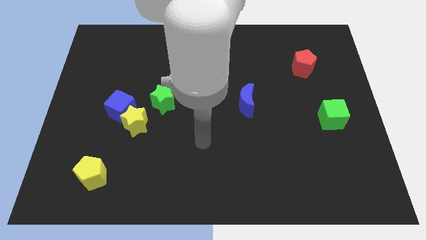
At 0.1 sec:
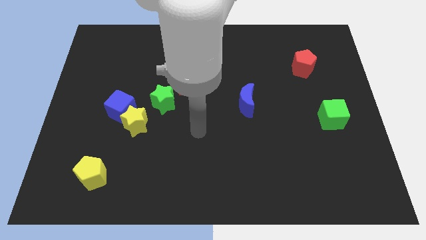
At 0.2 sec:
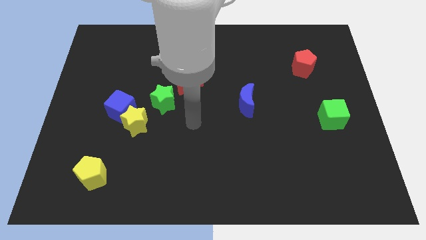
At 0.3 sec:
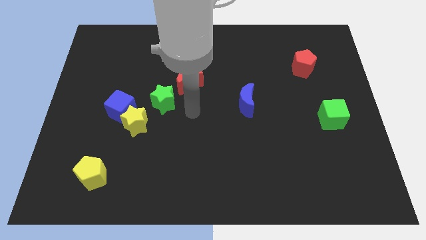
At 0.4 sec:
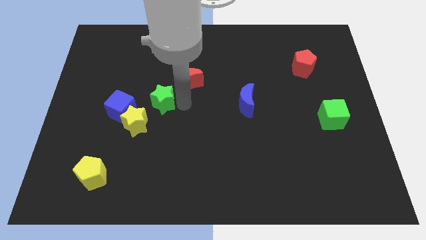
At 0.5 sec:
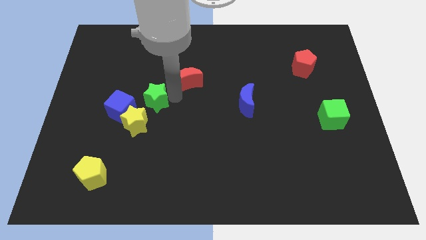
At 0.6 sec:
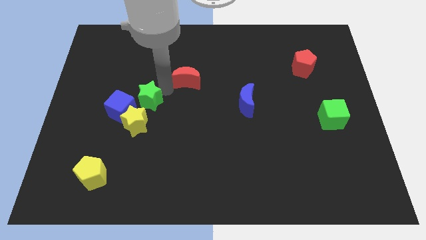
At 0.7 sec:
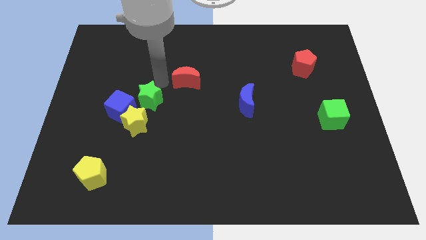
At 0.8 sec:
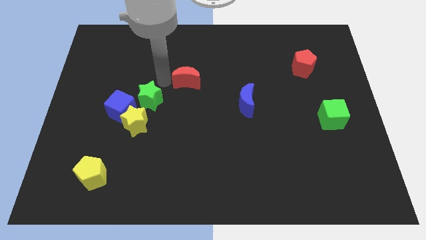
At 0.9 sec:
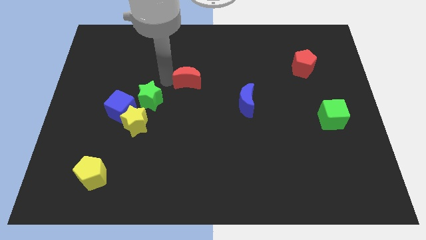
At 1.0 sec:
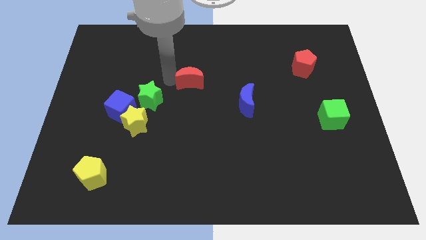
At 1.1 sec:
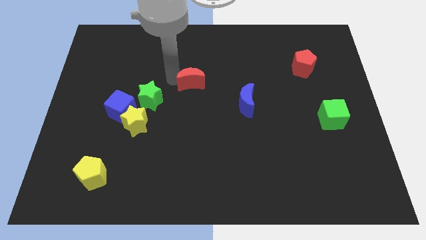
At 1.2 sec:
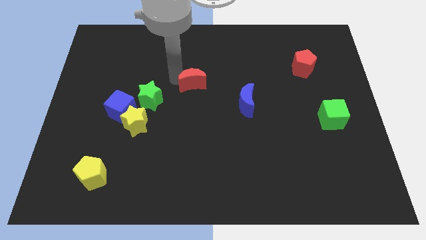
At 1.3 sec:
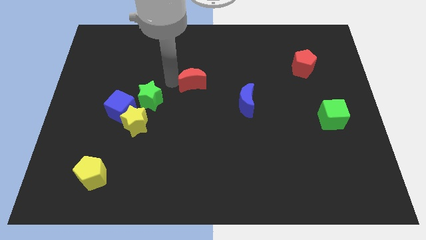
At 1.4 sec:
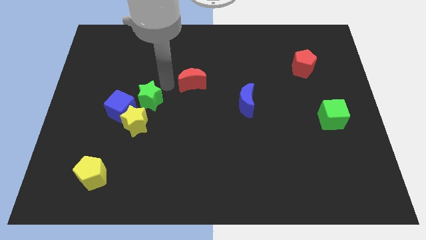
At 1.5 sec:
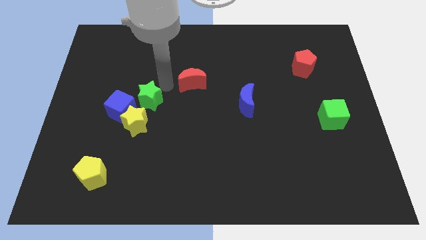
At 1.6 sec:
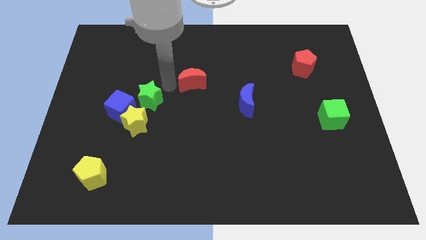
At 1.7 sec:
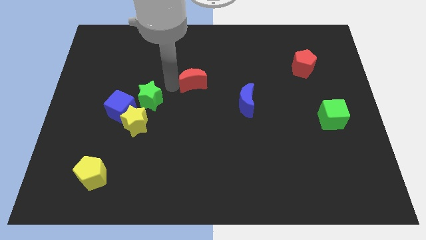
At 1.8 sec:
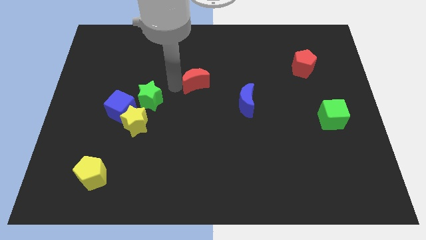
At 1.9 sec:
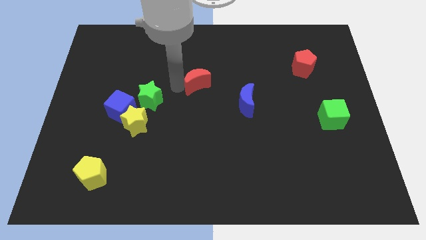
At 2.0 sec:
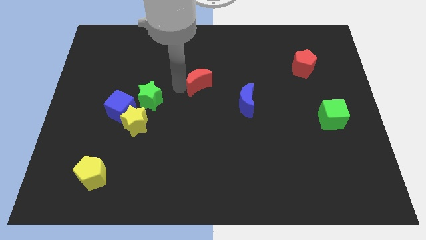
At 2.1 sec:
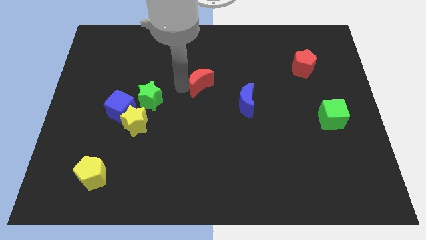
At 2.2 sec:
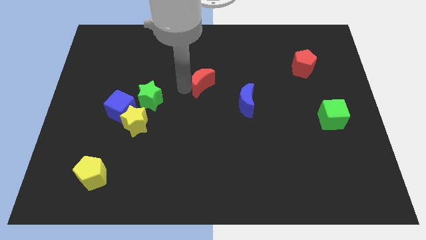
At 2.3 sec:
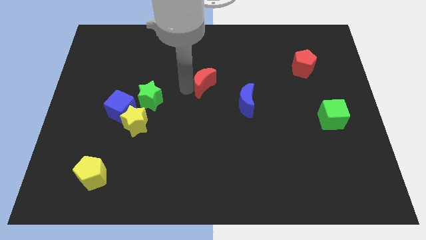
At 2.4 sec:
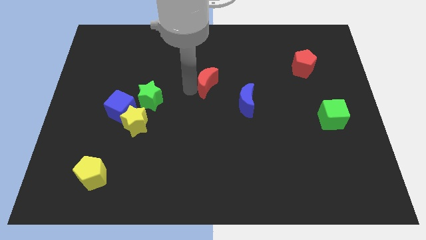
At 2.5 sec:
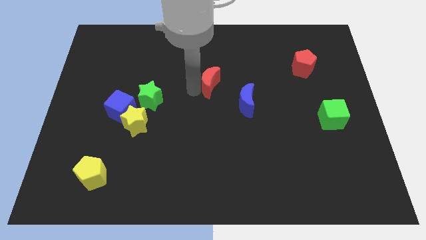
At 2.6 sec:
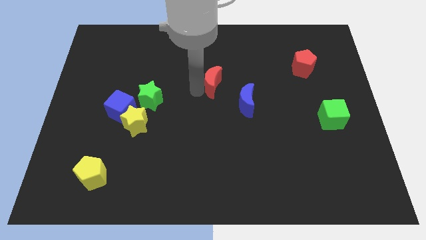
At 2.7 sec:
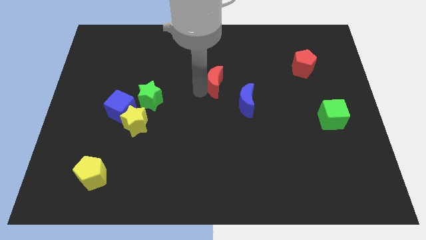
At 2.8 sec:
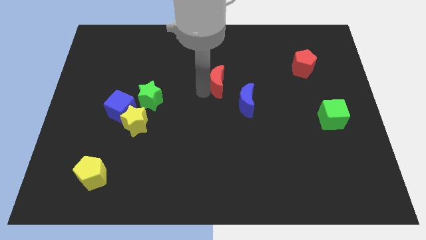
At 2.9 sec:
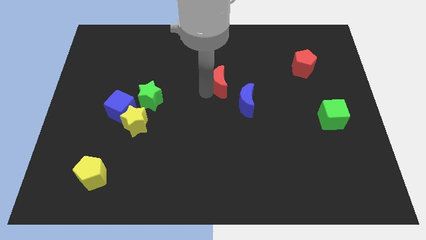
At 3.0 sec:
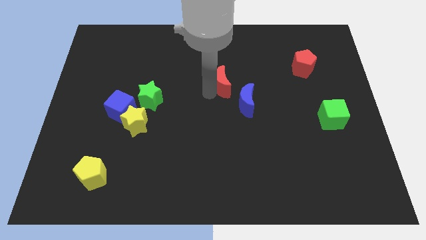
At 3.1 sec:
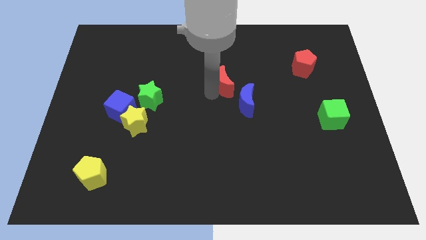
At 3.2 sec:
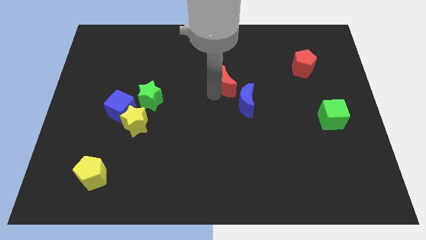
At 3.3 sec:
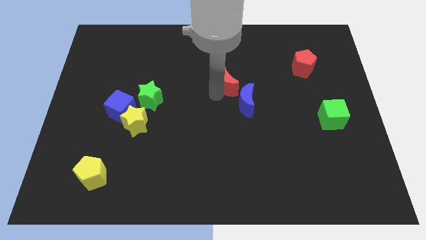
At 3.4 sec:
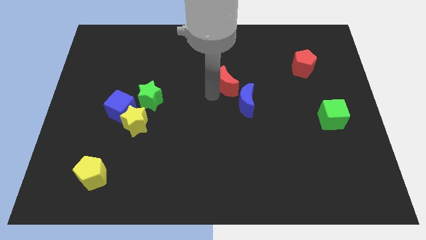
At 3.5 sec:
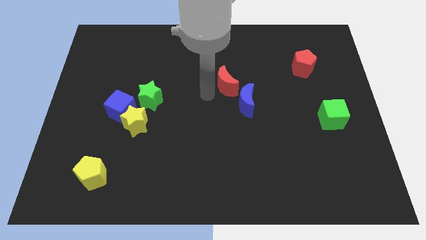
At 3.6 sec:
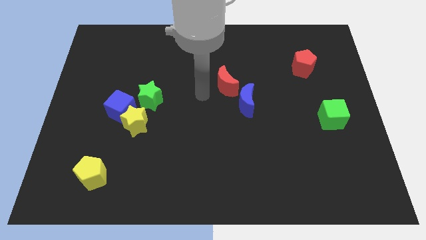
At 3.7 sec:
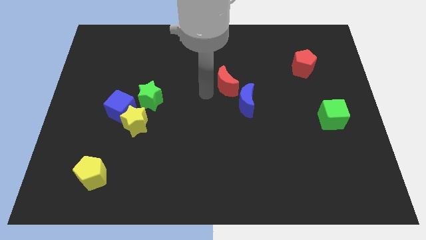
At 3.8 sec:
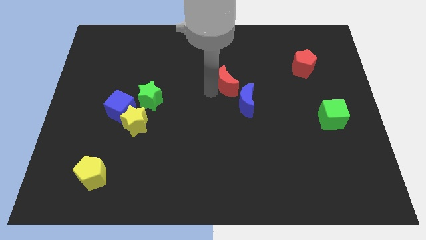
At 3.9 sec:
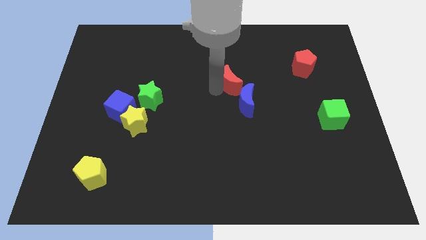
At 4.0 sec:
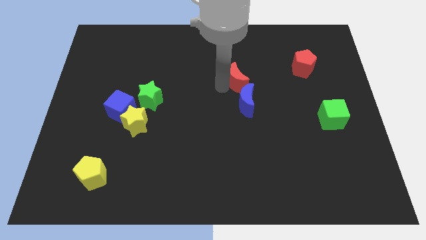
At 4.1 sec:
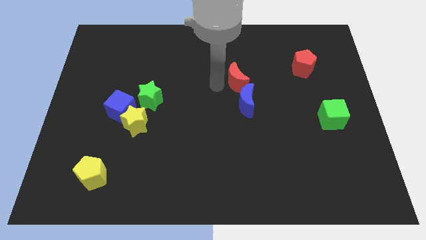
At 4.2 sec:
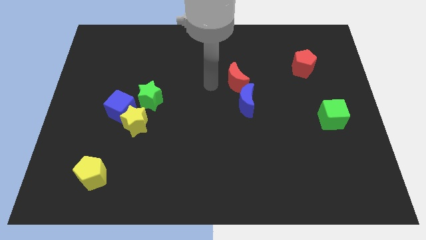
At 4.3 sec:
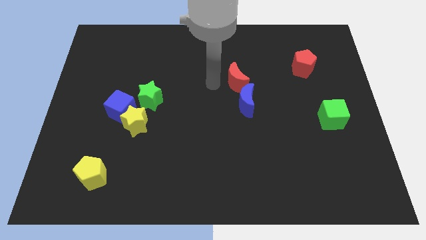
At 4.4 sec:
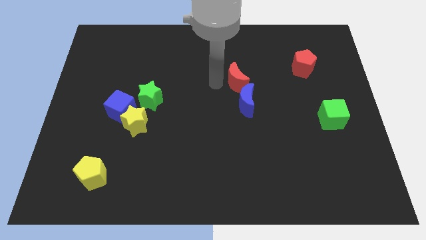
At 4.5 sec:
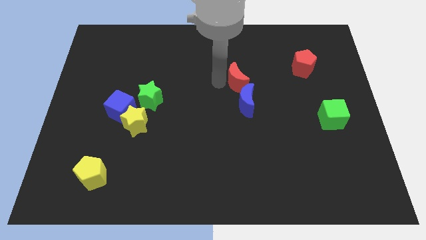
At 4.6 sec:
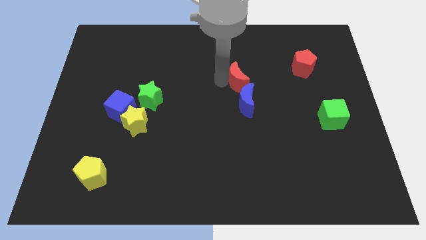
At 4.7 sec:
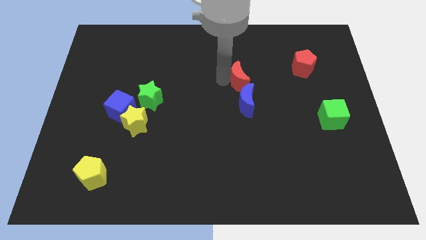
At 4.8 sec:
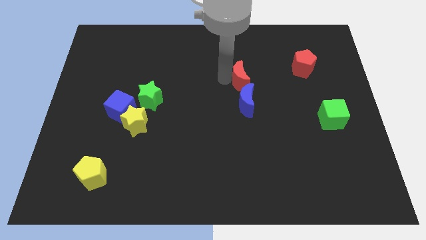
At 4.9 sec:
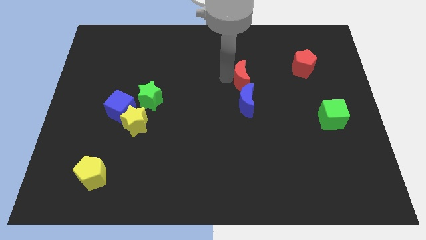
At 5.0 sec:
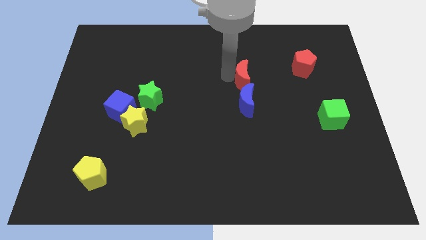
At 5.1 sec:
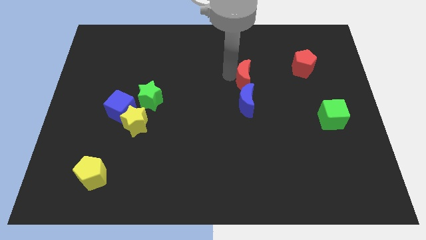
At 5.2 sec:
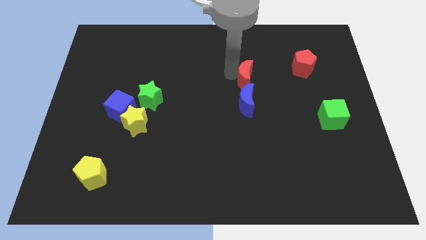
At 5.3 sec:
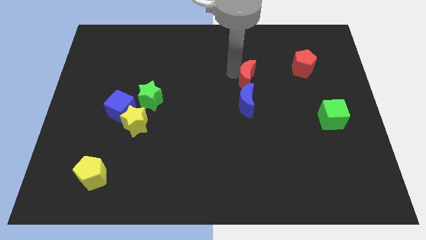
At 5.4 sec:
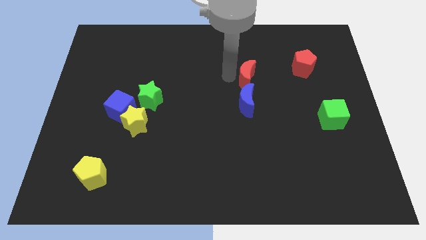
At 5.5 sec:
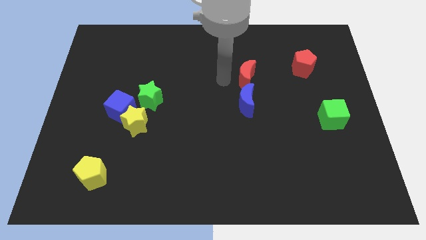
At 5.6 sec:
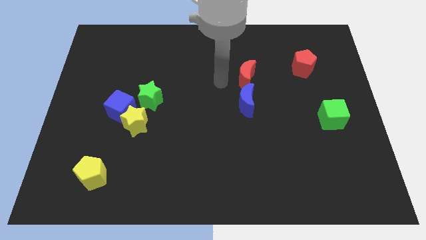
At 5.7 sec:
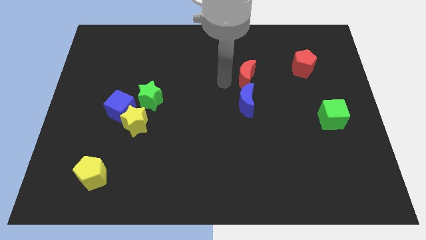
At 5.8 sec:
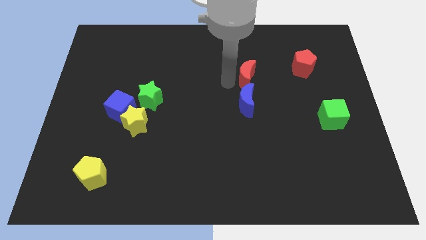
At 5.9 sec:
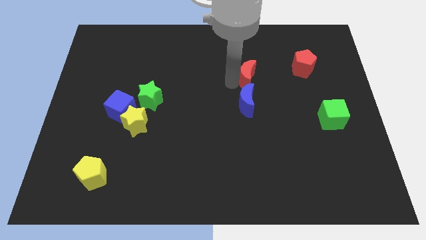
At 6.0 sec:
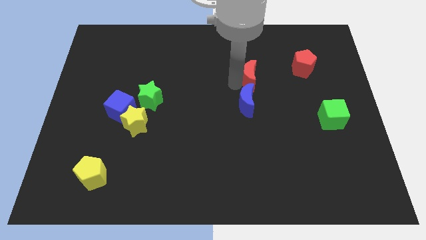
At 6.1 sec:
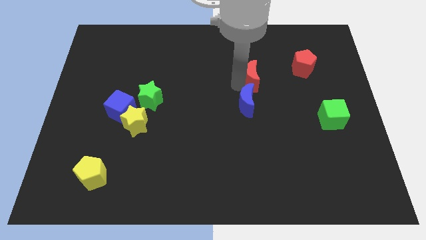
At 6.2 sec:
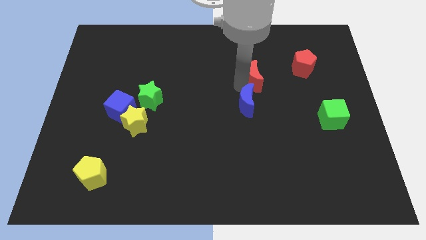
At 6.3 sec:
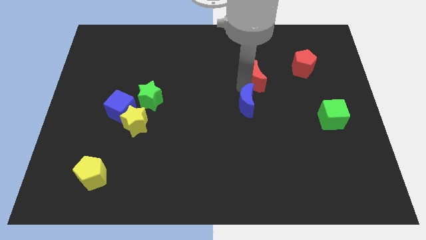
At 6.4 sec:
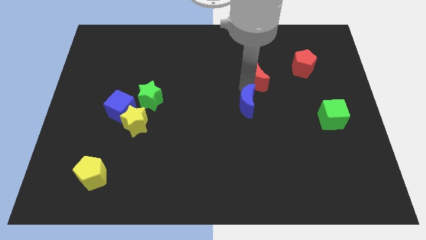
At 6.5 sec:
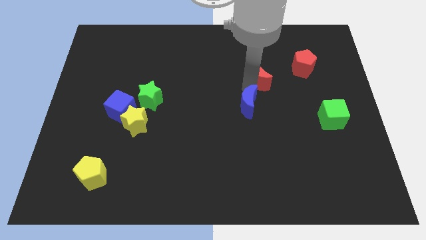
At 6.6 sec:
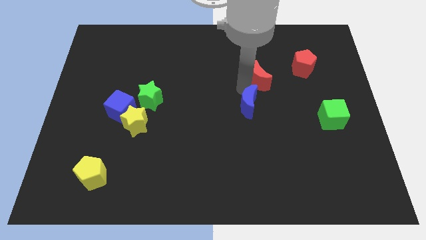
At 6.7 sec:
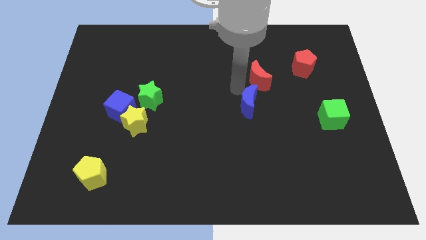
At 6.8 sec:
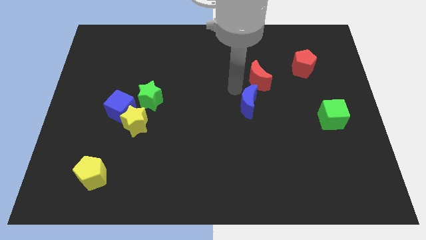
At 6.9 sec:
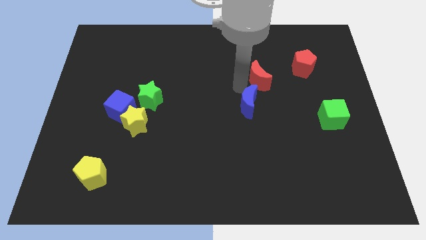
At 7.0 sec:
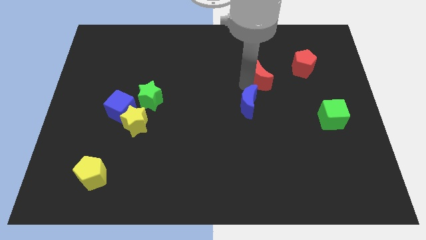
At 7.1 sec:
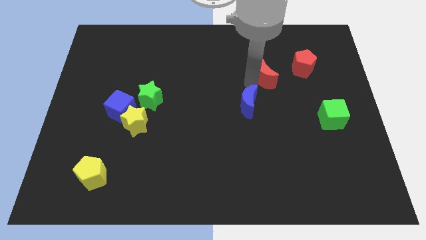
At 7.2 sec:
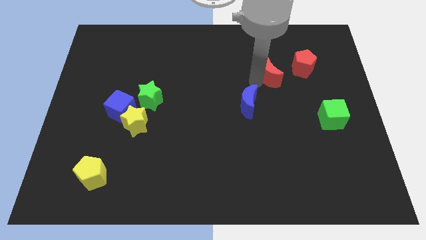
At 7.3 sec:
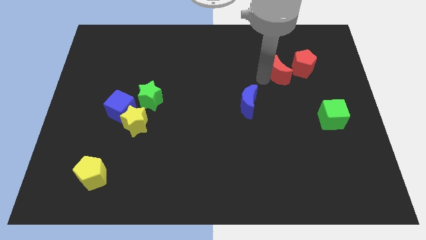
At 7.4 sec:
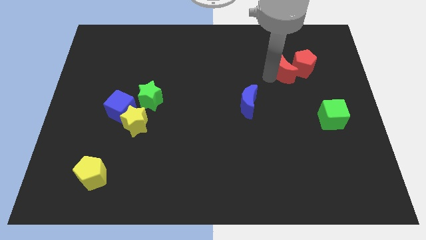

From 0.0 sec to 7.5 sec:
put the red moon towards the red pentagon
